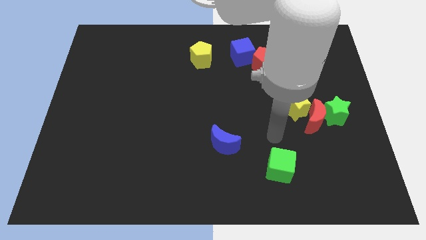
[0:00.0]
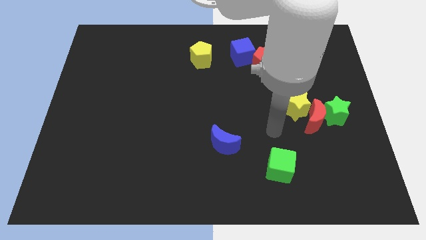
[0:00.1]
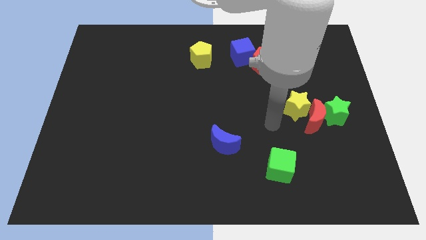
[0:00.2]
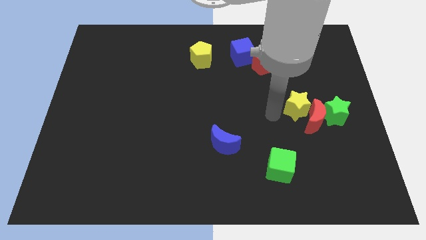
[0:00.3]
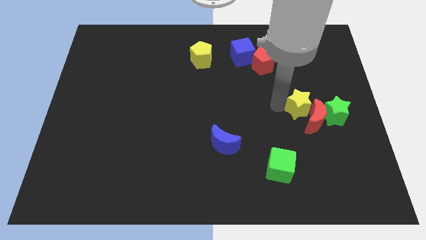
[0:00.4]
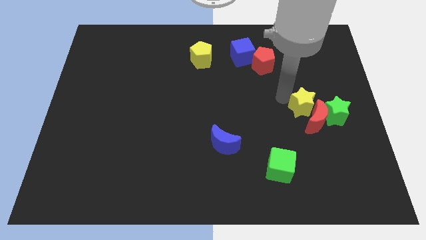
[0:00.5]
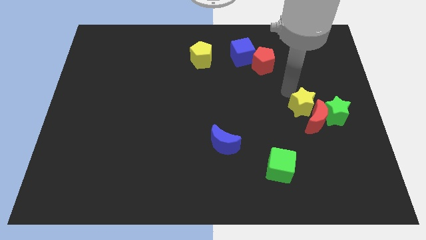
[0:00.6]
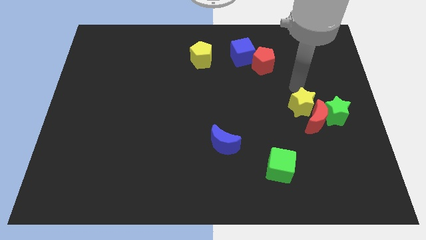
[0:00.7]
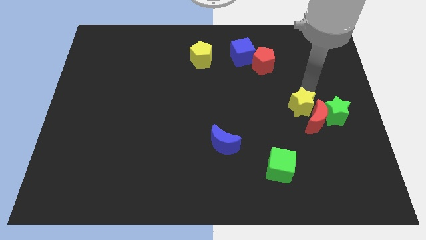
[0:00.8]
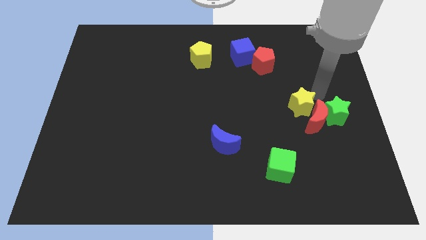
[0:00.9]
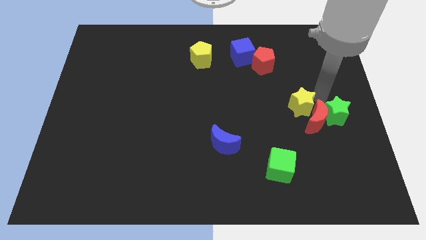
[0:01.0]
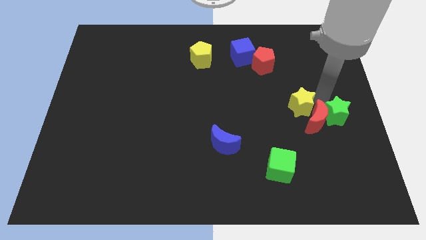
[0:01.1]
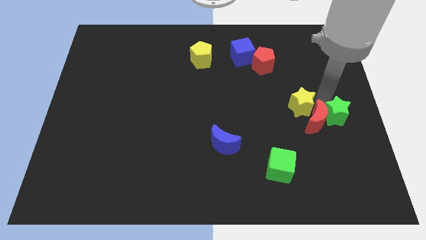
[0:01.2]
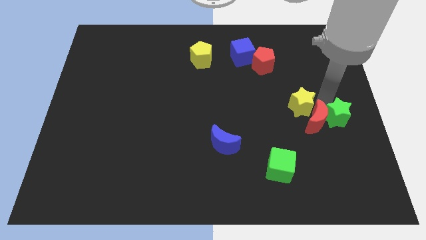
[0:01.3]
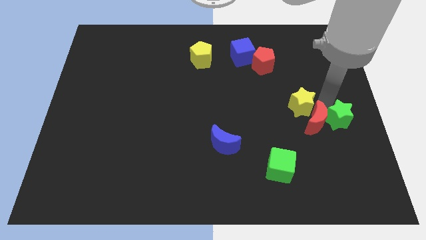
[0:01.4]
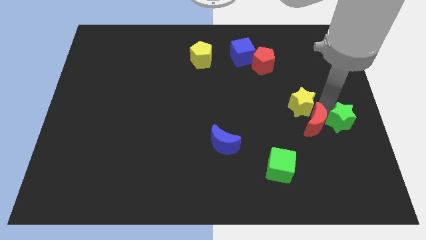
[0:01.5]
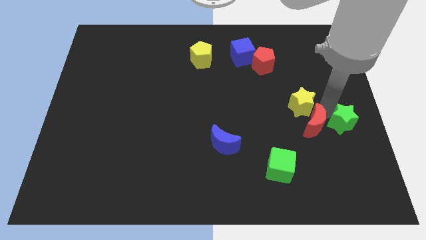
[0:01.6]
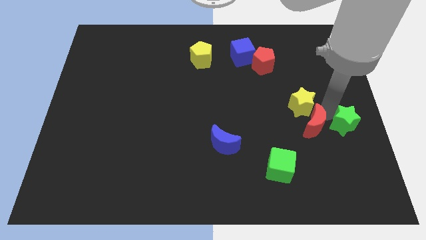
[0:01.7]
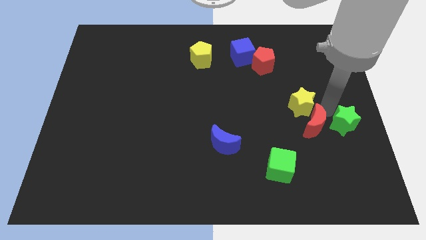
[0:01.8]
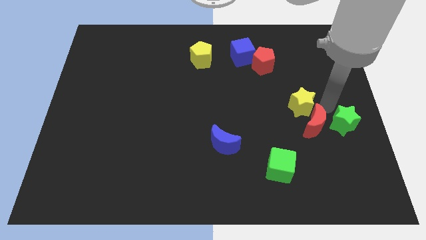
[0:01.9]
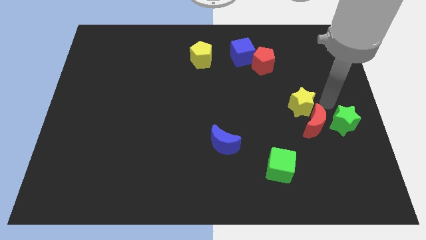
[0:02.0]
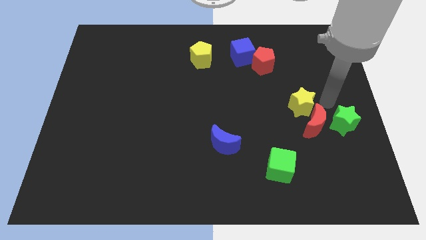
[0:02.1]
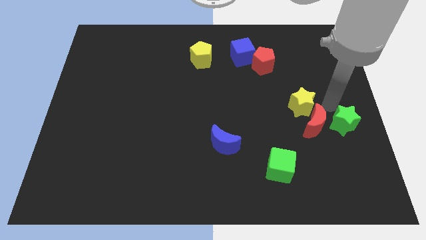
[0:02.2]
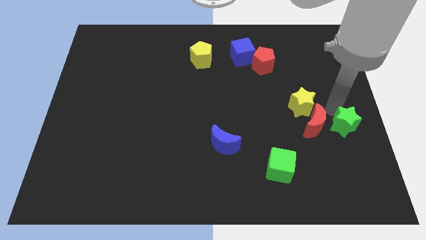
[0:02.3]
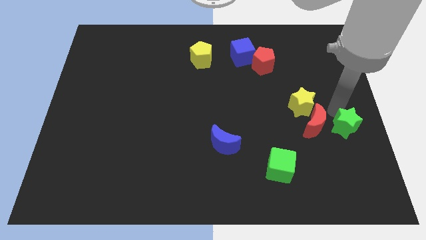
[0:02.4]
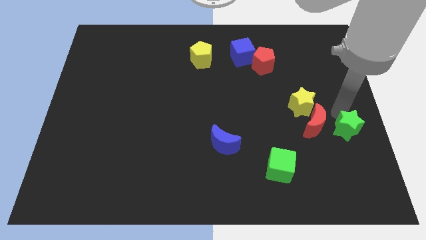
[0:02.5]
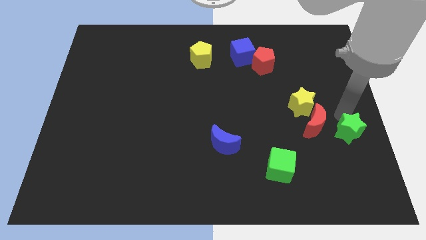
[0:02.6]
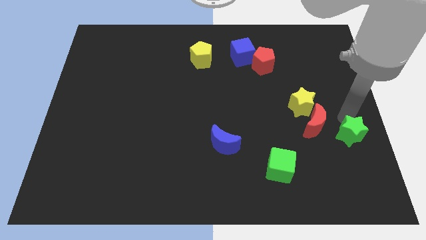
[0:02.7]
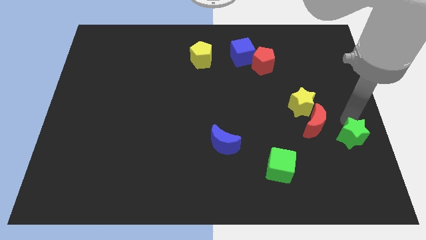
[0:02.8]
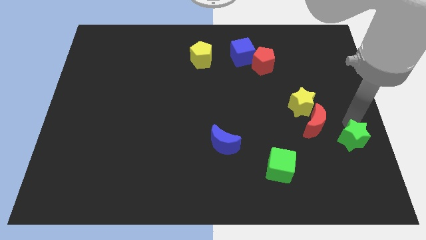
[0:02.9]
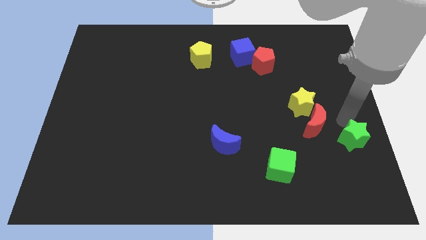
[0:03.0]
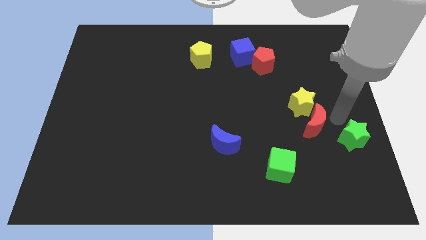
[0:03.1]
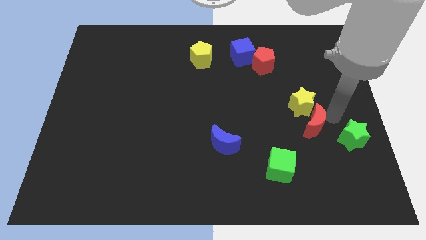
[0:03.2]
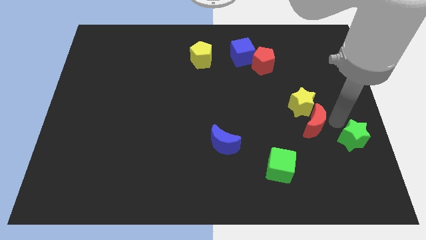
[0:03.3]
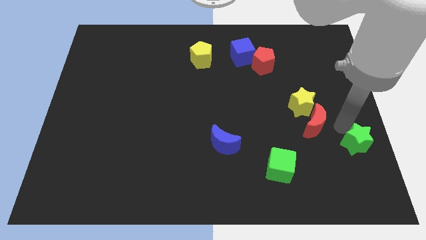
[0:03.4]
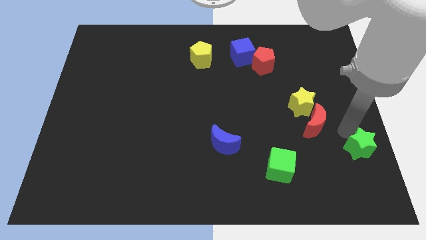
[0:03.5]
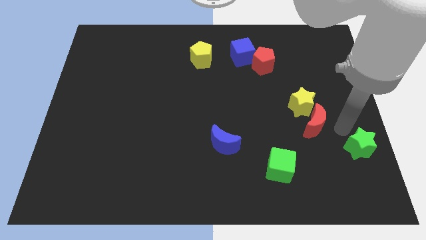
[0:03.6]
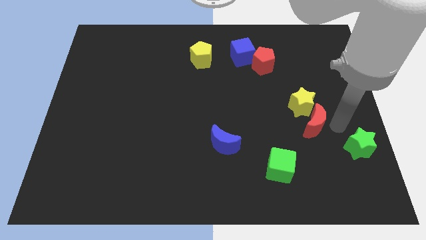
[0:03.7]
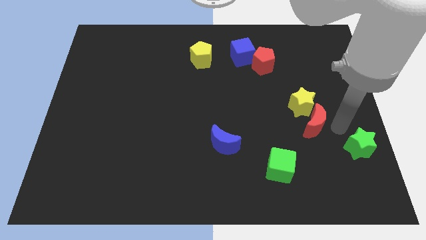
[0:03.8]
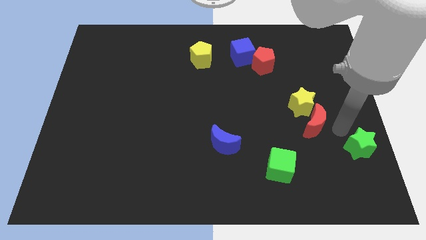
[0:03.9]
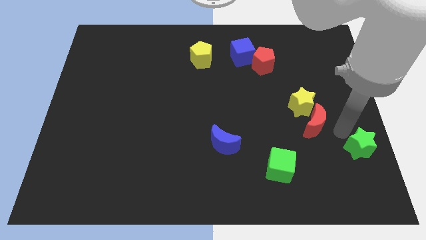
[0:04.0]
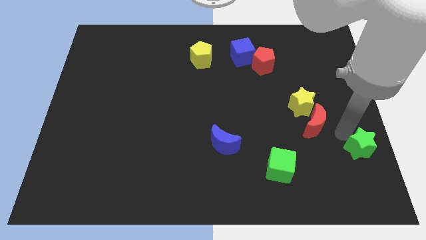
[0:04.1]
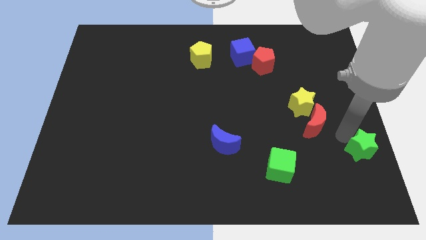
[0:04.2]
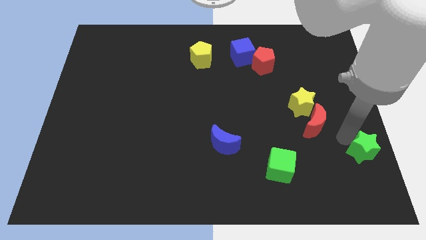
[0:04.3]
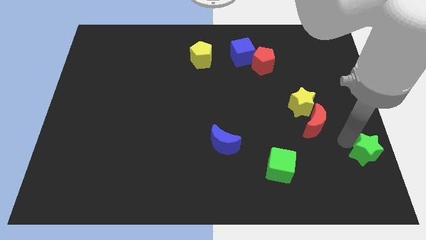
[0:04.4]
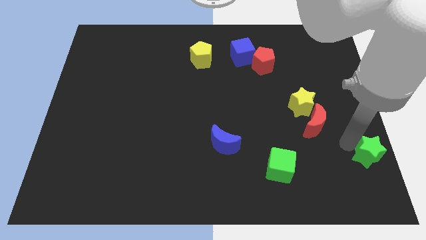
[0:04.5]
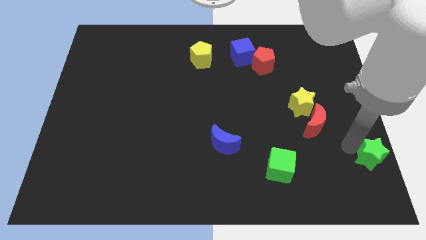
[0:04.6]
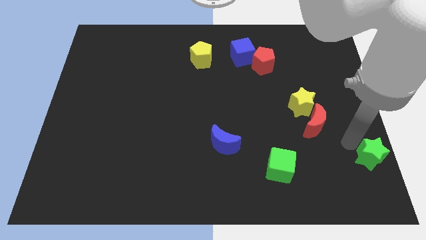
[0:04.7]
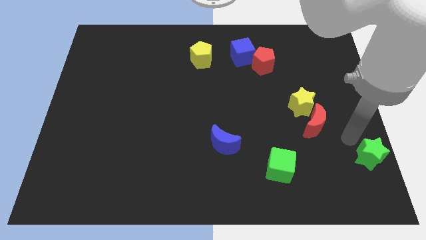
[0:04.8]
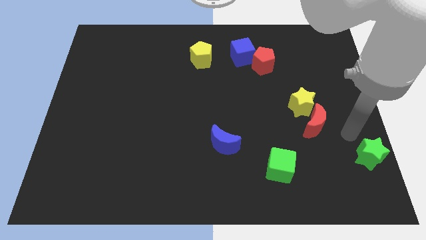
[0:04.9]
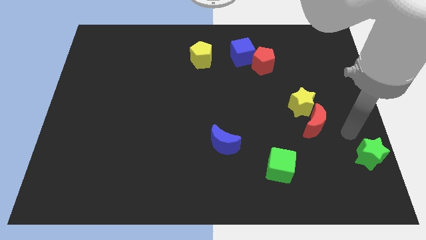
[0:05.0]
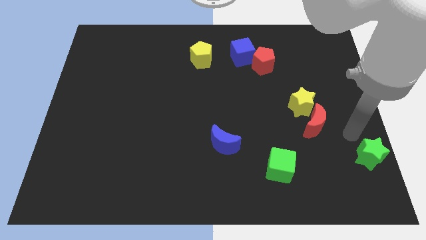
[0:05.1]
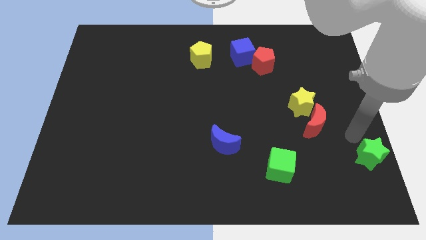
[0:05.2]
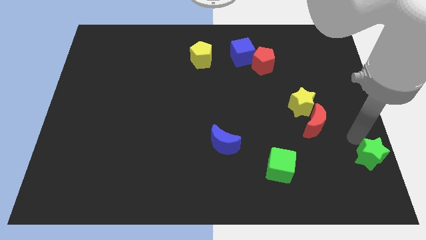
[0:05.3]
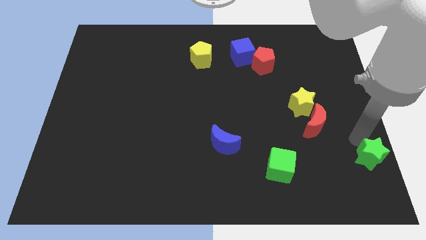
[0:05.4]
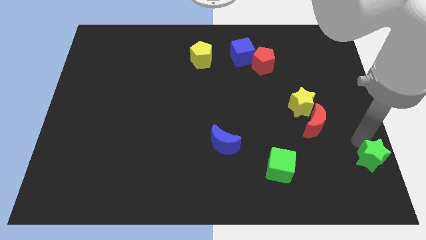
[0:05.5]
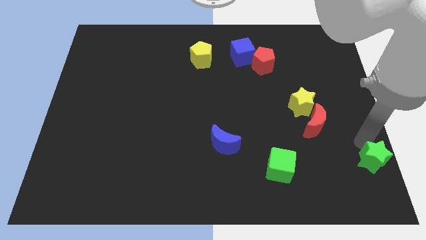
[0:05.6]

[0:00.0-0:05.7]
move the green star to the bottom right corner

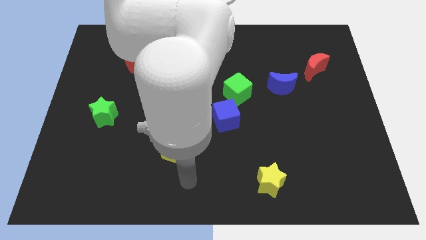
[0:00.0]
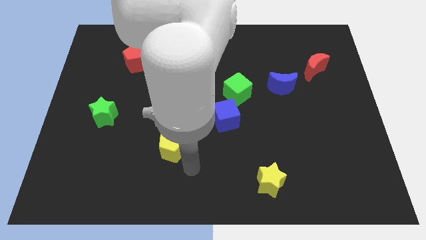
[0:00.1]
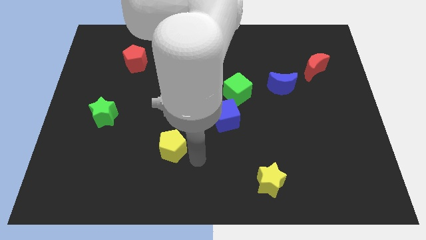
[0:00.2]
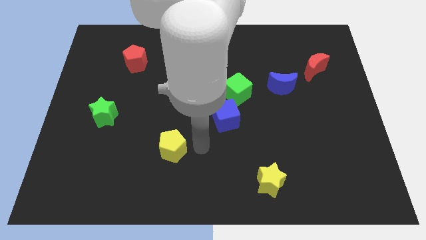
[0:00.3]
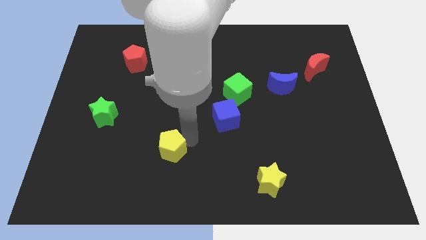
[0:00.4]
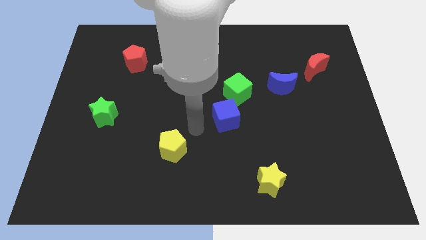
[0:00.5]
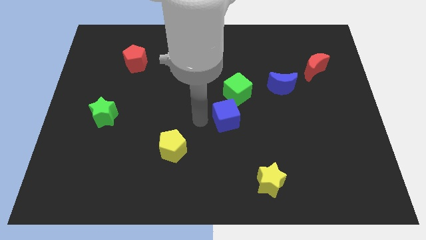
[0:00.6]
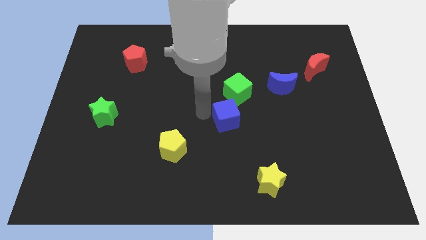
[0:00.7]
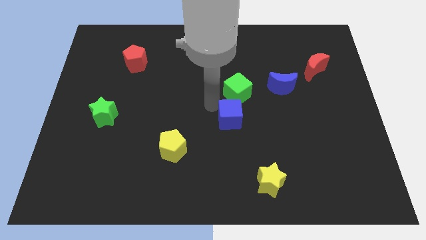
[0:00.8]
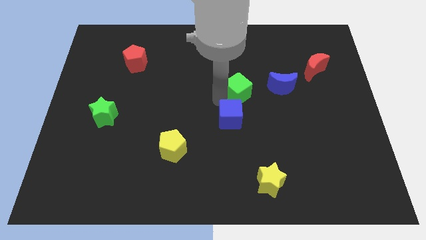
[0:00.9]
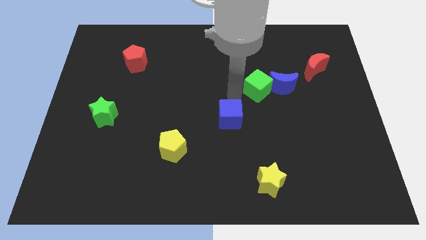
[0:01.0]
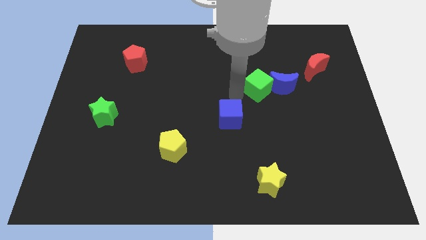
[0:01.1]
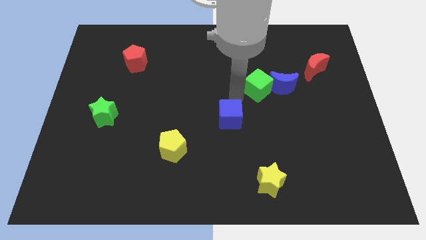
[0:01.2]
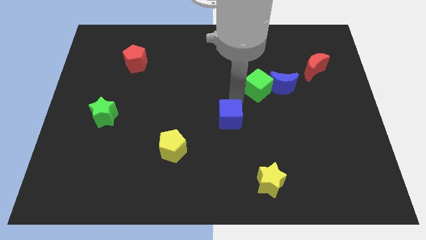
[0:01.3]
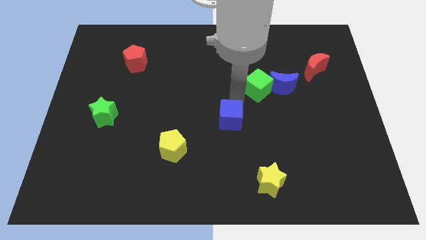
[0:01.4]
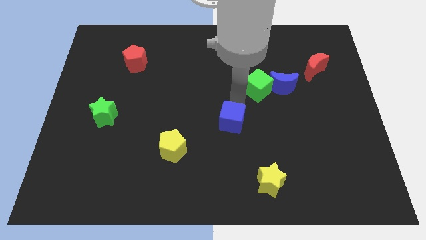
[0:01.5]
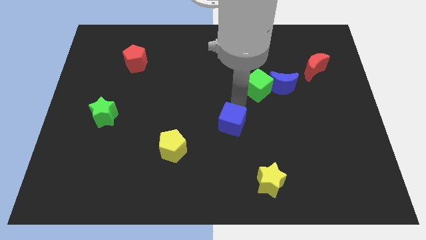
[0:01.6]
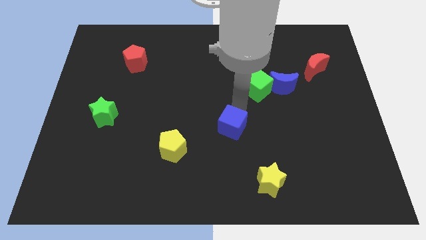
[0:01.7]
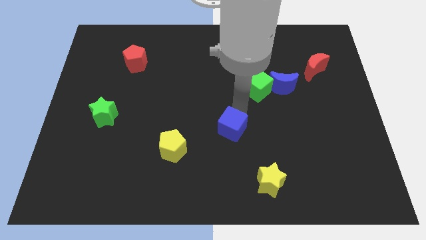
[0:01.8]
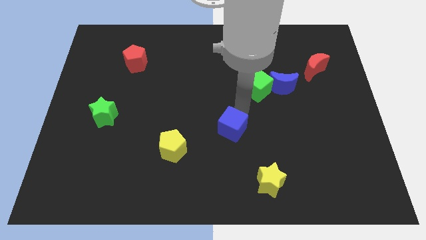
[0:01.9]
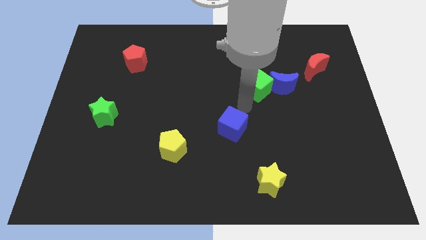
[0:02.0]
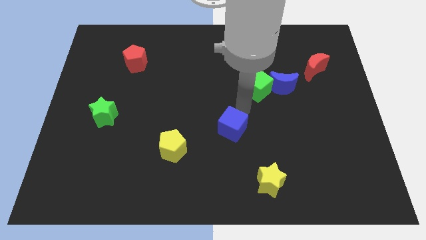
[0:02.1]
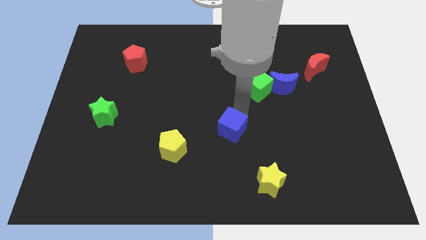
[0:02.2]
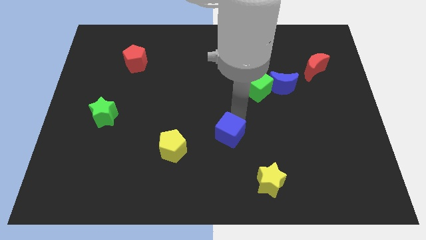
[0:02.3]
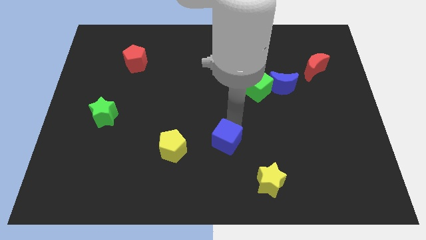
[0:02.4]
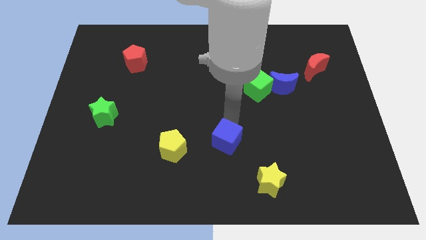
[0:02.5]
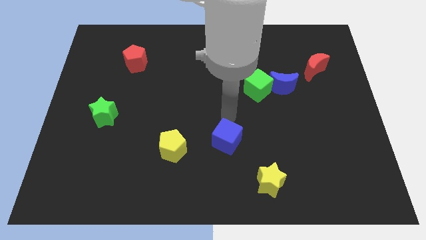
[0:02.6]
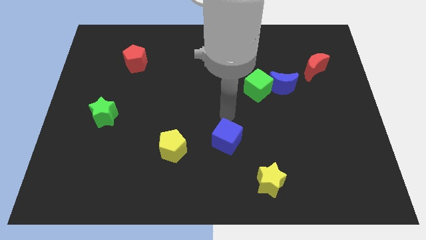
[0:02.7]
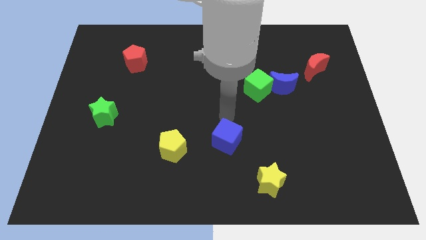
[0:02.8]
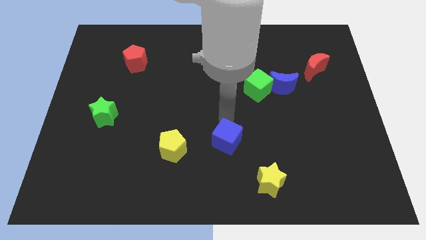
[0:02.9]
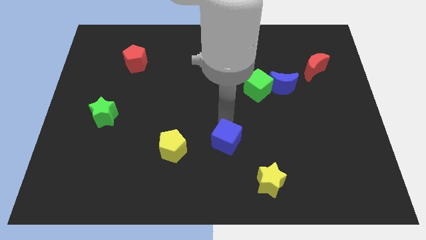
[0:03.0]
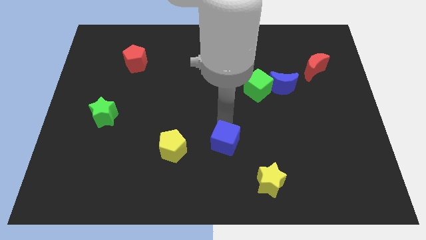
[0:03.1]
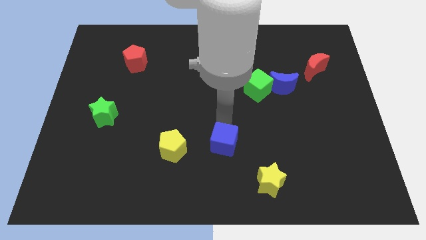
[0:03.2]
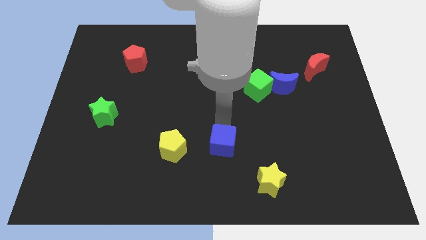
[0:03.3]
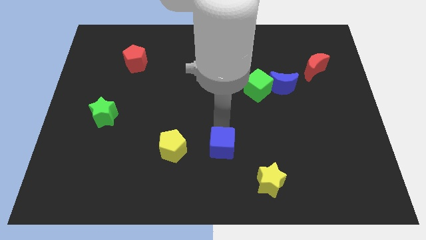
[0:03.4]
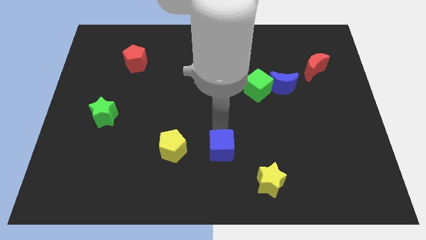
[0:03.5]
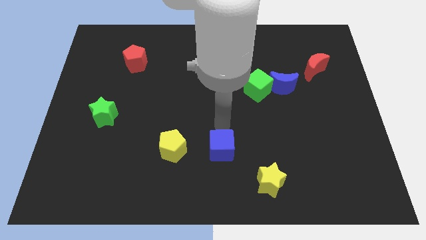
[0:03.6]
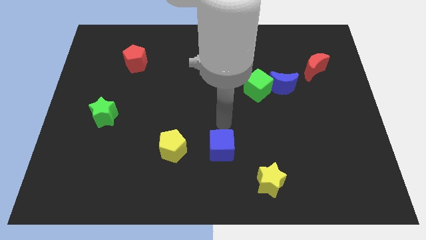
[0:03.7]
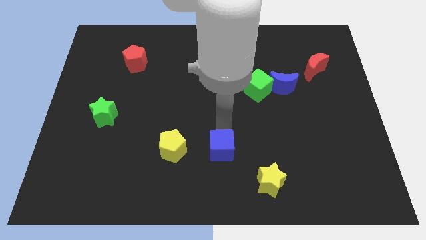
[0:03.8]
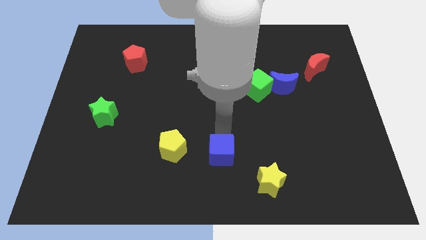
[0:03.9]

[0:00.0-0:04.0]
slide the blue cube to the bottom
